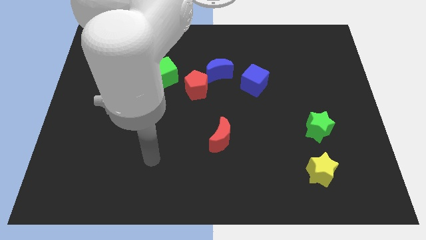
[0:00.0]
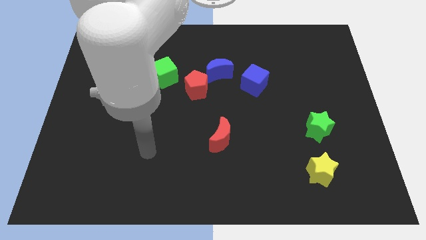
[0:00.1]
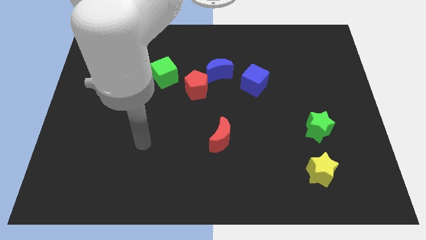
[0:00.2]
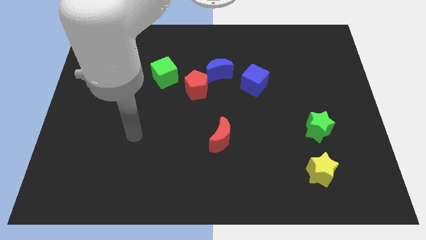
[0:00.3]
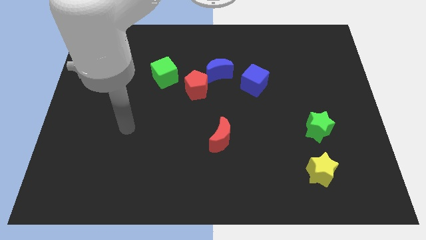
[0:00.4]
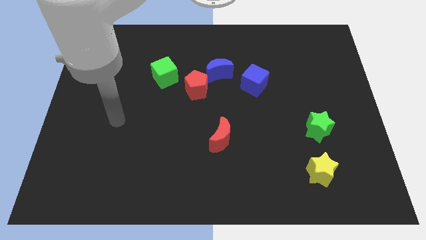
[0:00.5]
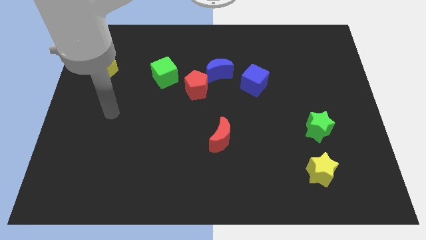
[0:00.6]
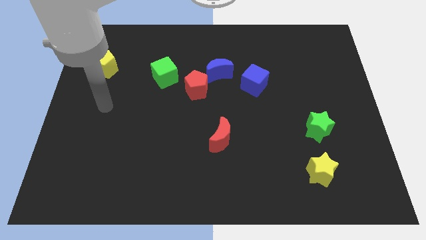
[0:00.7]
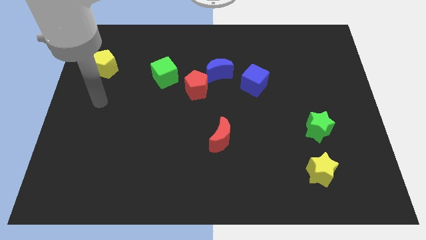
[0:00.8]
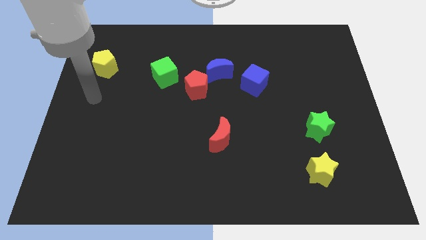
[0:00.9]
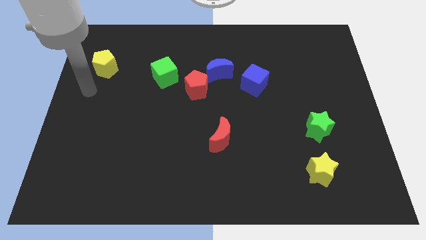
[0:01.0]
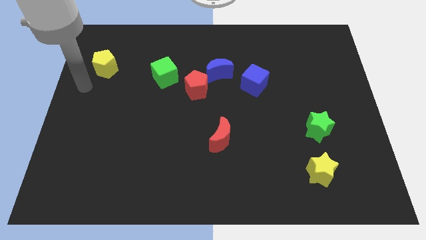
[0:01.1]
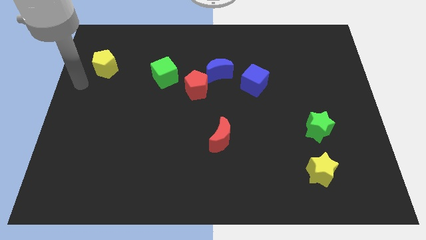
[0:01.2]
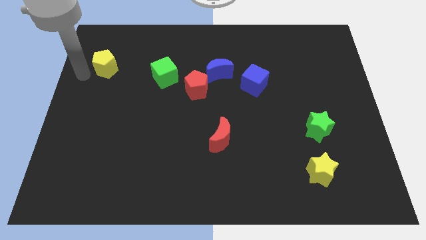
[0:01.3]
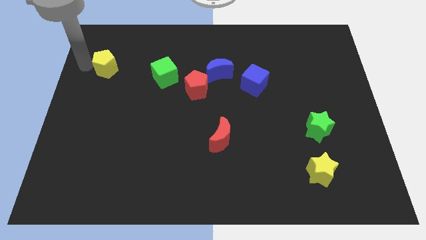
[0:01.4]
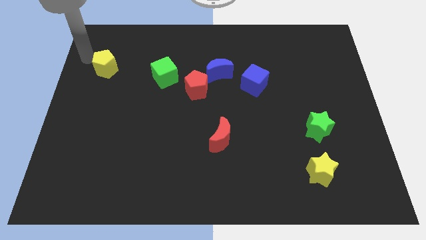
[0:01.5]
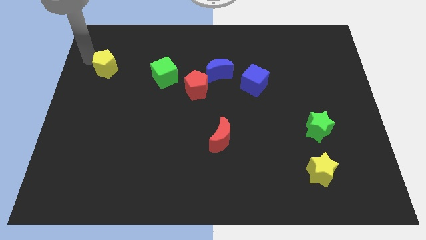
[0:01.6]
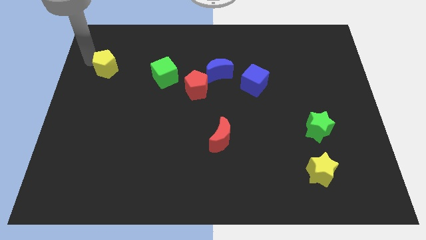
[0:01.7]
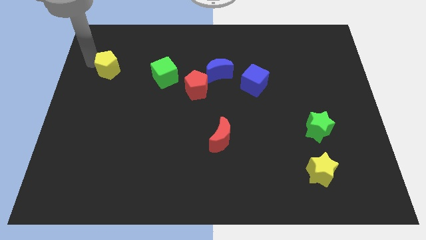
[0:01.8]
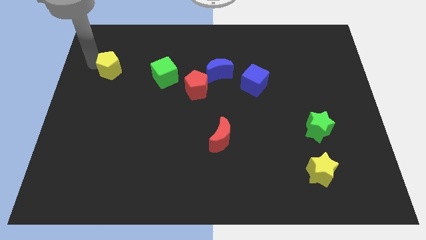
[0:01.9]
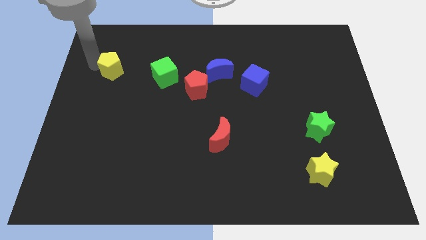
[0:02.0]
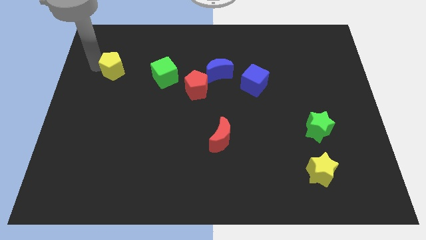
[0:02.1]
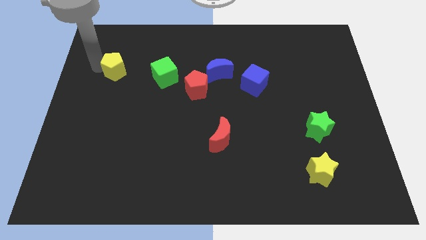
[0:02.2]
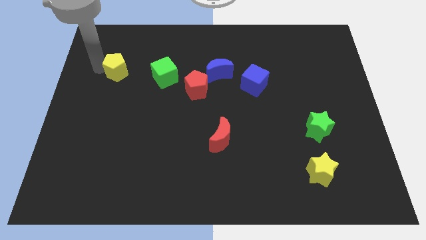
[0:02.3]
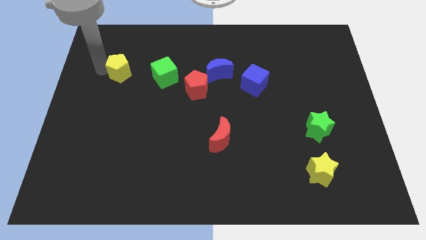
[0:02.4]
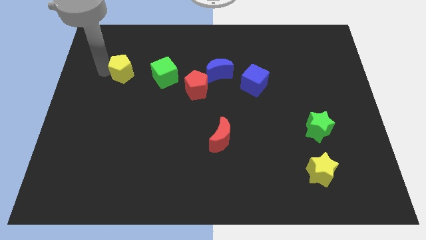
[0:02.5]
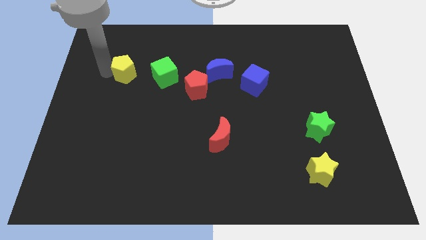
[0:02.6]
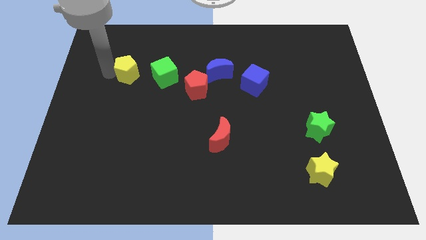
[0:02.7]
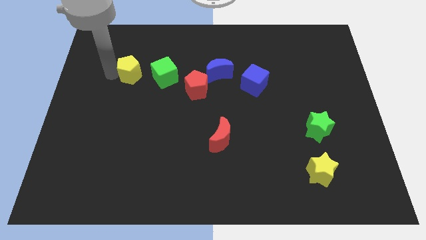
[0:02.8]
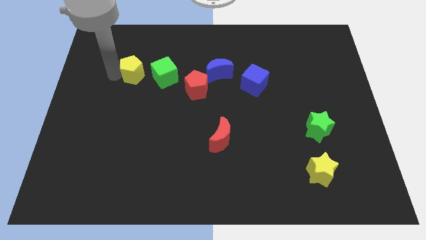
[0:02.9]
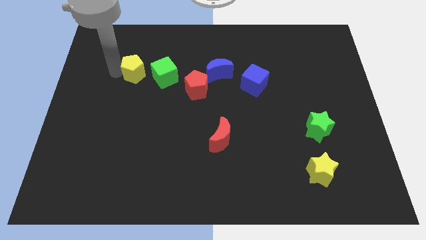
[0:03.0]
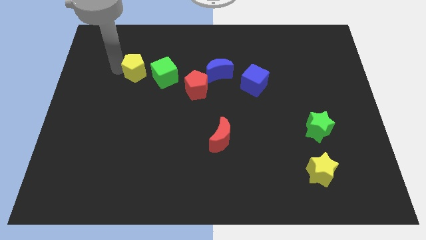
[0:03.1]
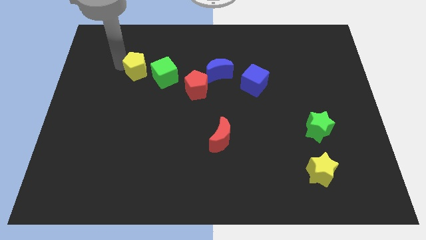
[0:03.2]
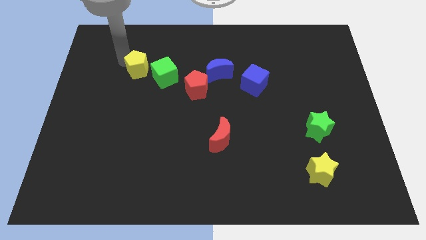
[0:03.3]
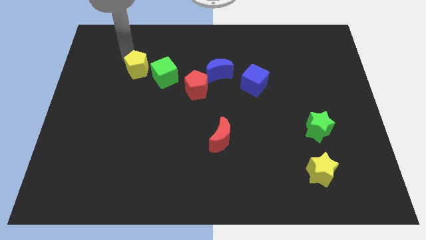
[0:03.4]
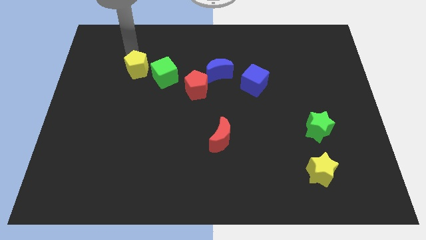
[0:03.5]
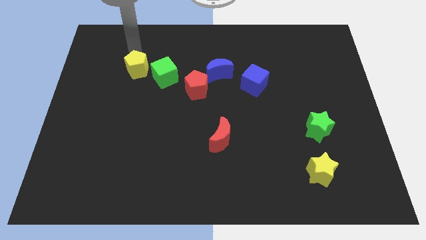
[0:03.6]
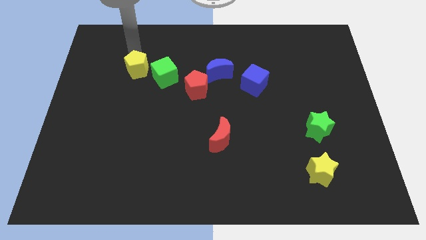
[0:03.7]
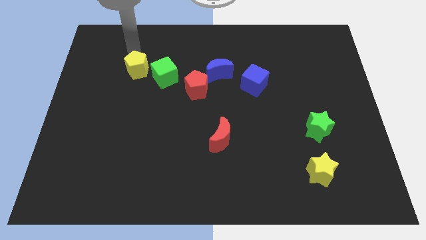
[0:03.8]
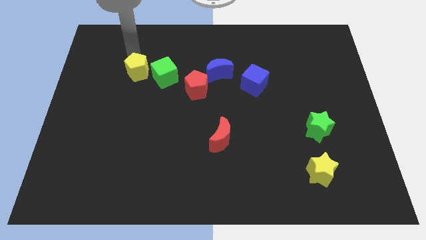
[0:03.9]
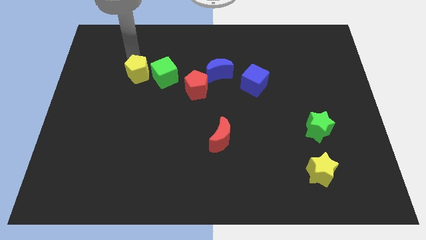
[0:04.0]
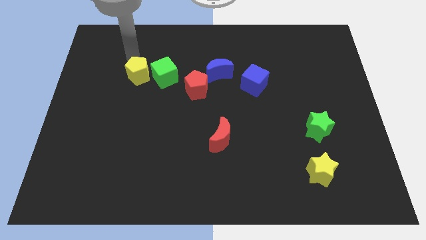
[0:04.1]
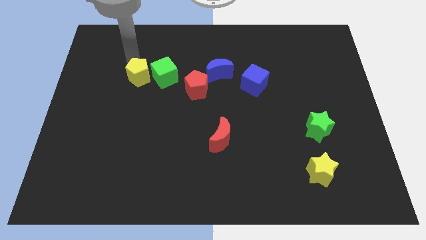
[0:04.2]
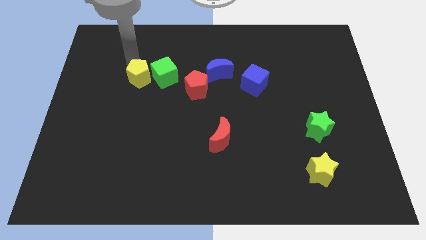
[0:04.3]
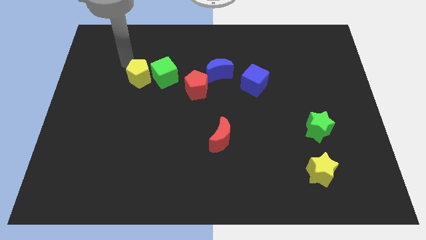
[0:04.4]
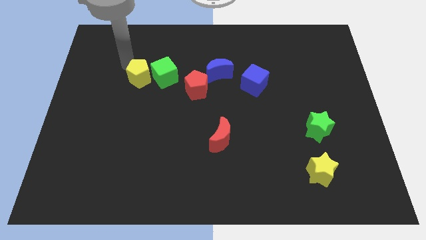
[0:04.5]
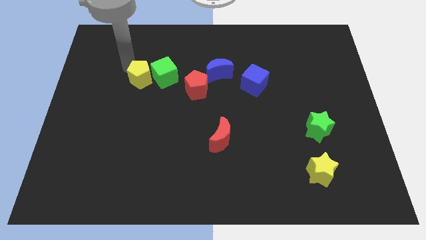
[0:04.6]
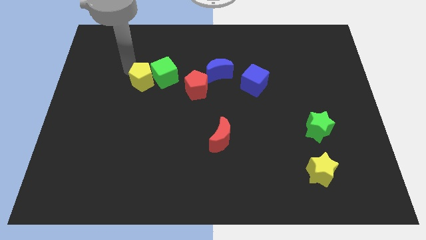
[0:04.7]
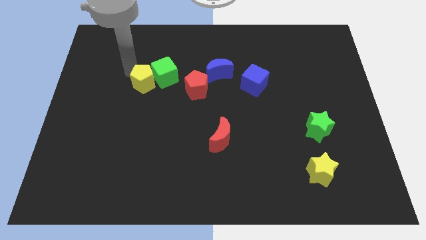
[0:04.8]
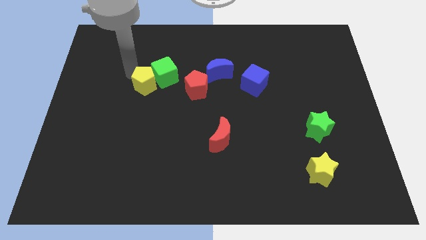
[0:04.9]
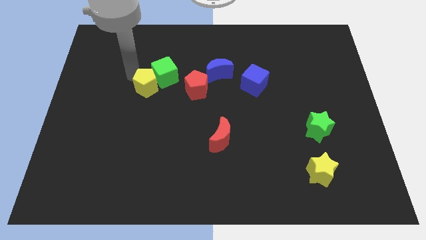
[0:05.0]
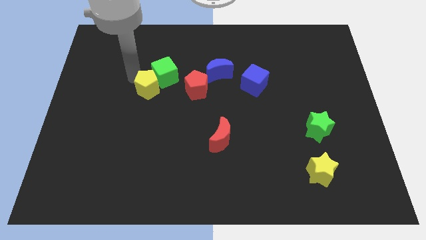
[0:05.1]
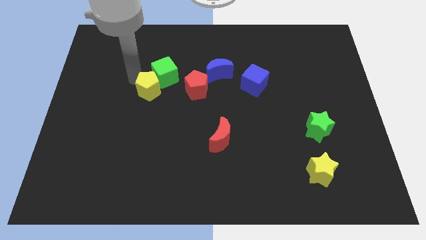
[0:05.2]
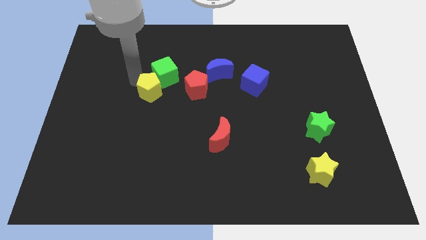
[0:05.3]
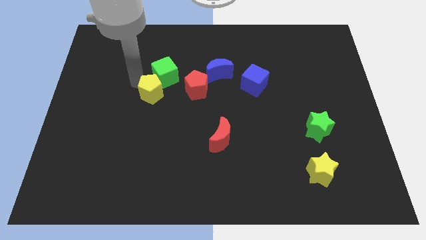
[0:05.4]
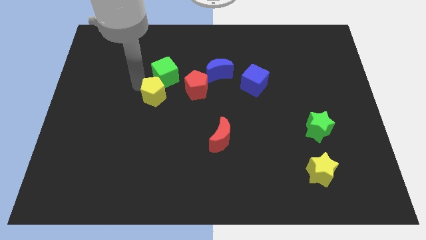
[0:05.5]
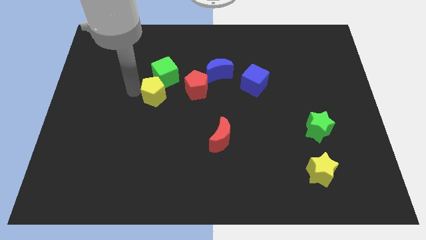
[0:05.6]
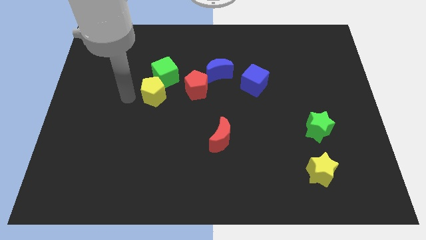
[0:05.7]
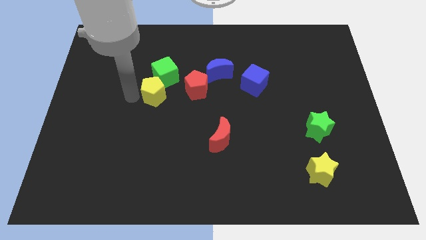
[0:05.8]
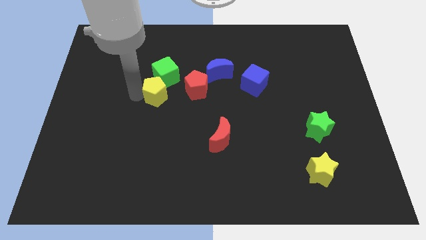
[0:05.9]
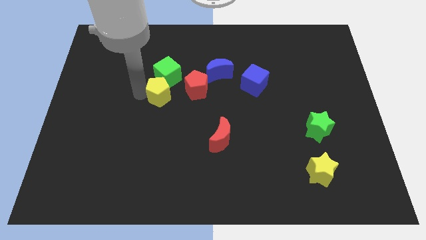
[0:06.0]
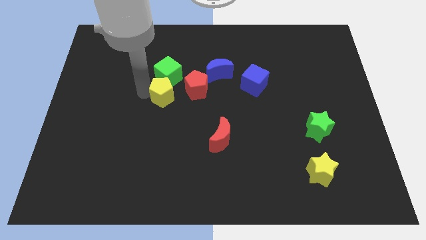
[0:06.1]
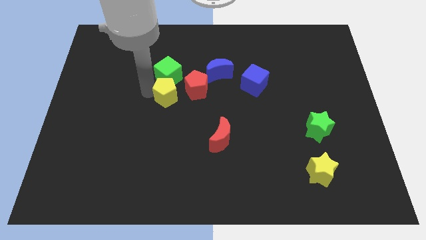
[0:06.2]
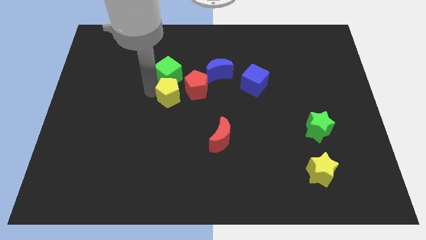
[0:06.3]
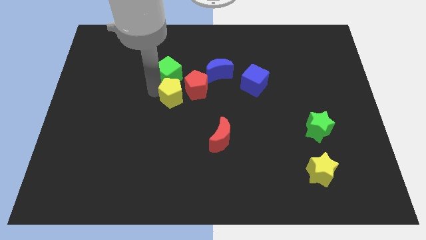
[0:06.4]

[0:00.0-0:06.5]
put the yellow pentagon to the red pentagon

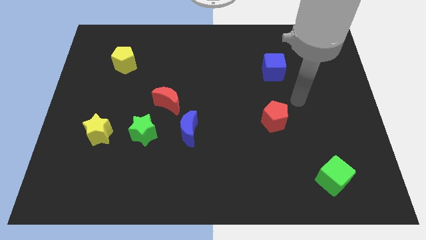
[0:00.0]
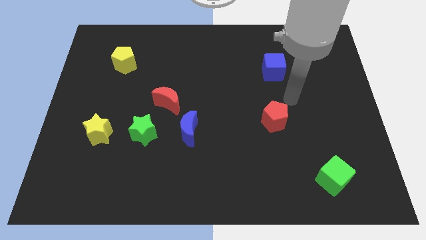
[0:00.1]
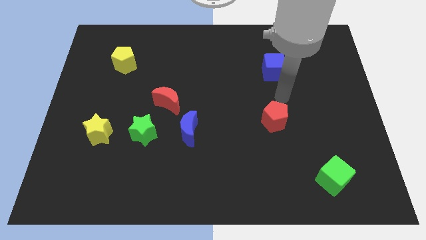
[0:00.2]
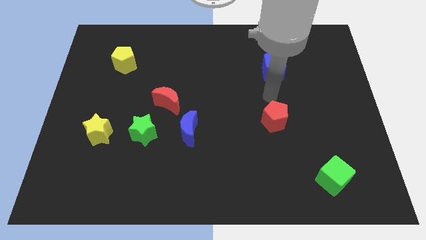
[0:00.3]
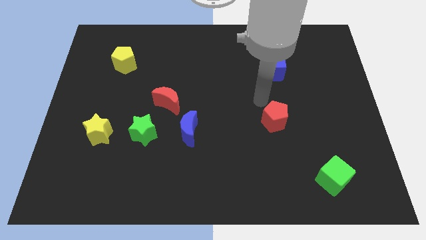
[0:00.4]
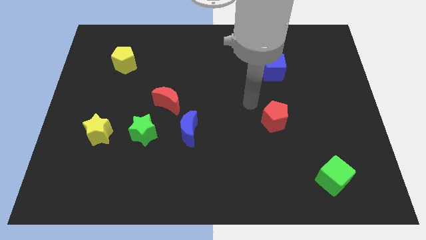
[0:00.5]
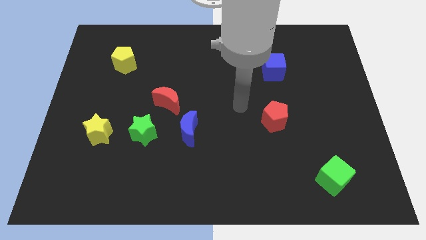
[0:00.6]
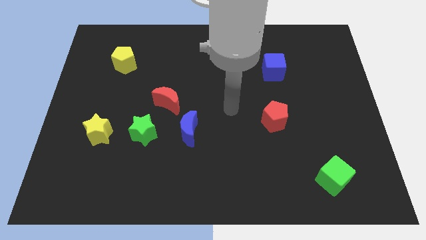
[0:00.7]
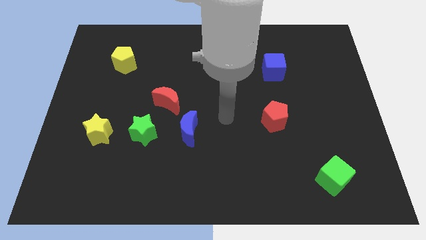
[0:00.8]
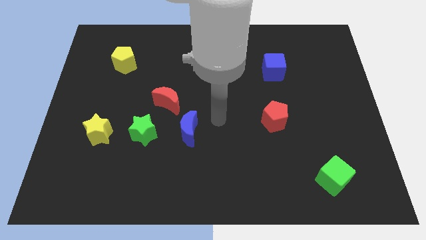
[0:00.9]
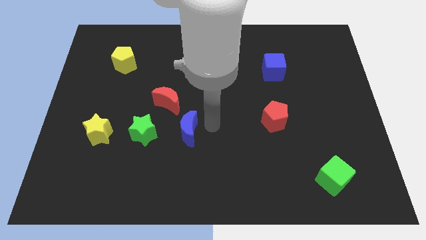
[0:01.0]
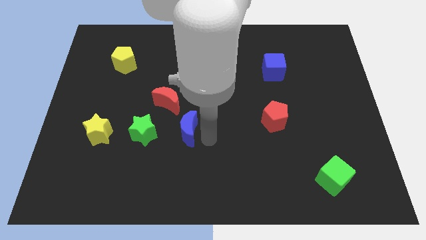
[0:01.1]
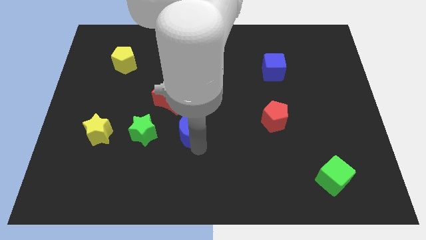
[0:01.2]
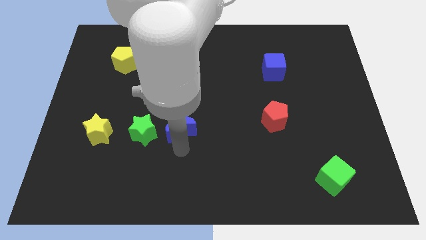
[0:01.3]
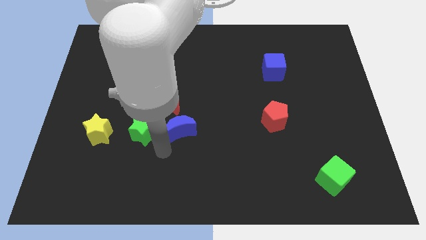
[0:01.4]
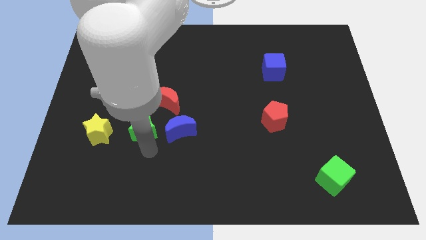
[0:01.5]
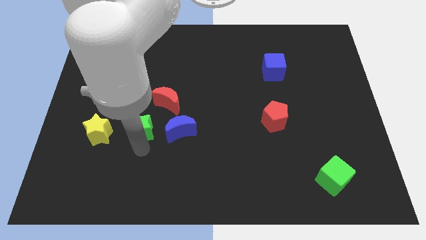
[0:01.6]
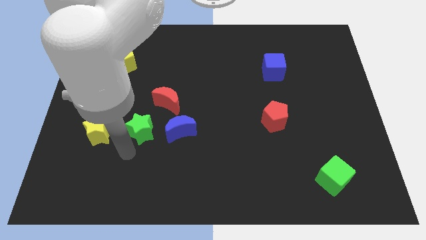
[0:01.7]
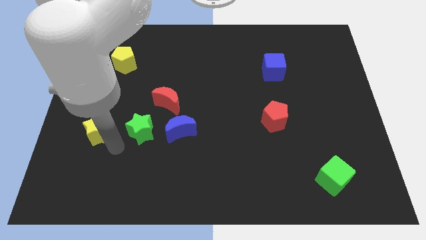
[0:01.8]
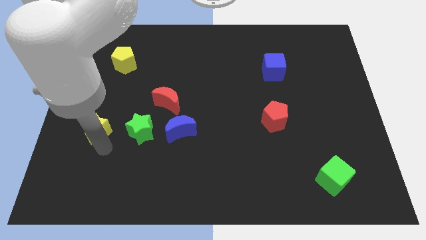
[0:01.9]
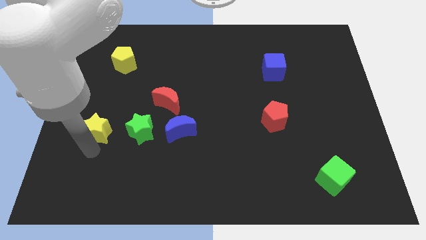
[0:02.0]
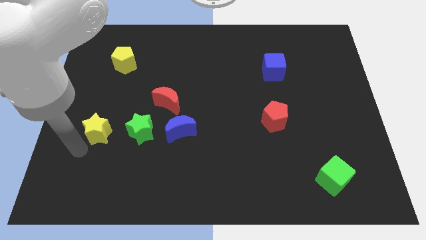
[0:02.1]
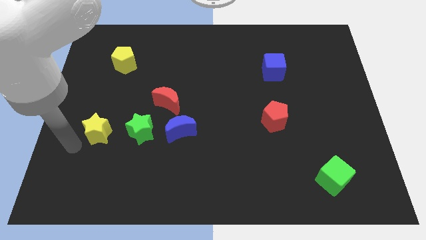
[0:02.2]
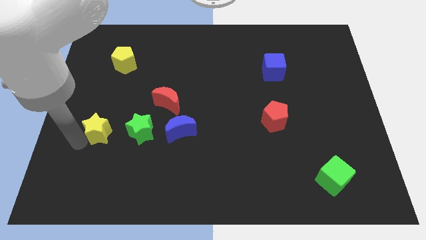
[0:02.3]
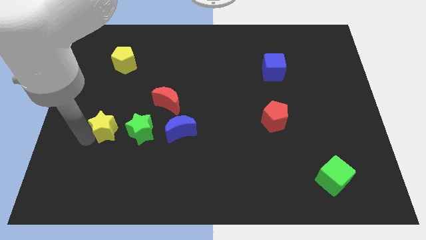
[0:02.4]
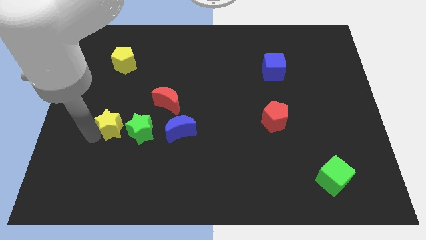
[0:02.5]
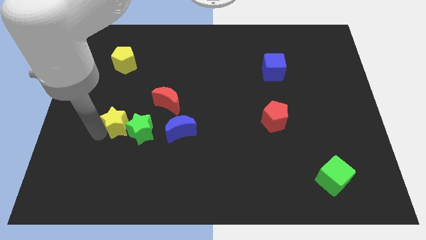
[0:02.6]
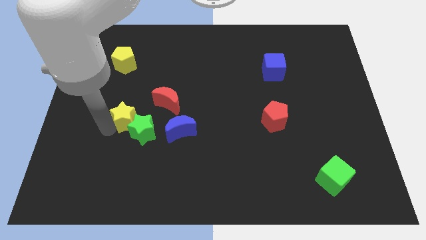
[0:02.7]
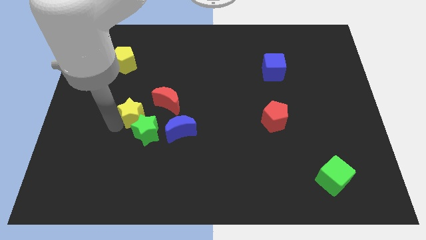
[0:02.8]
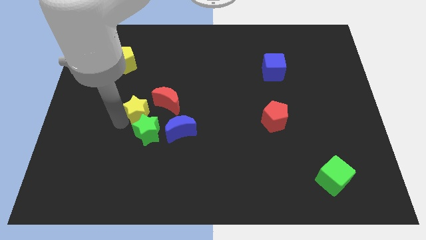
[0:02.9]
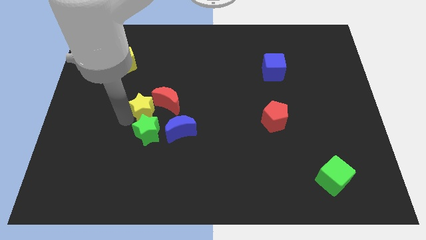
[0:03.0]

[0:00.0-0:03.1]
push the yellow star to the red moon
